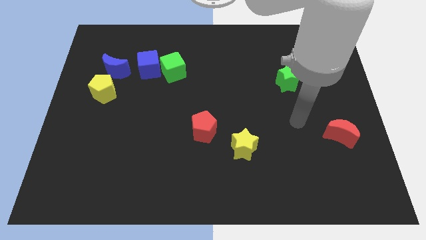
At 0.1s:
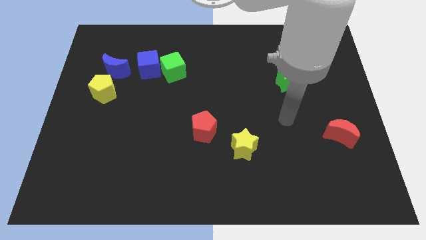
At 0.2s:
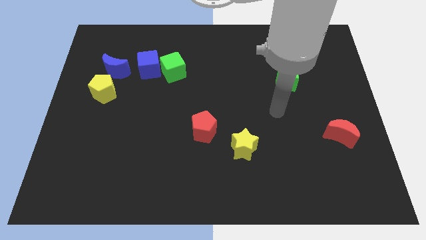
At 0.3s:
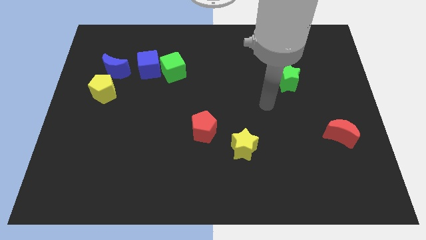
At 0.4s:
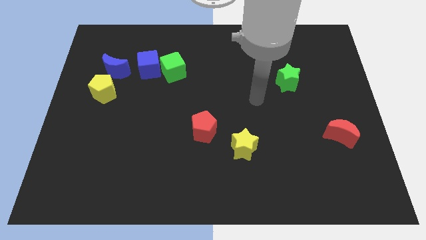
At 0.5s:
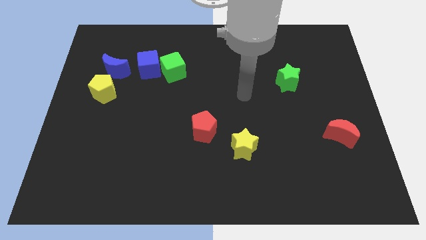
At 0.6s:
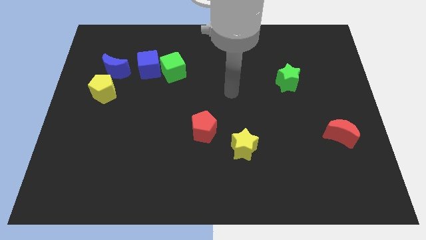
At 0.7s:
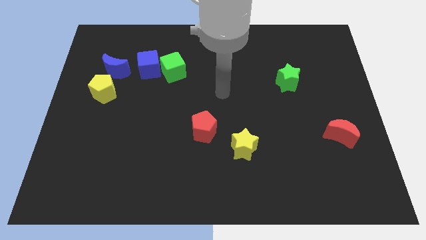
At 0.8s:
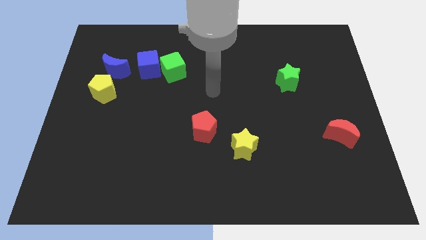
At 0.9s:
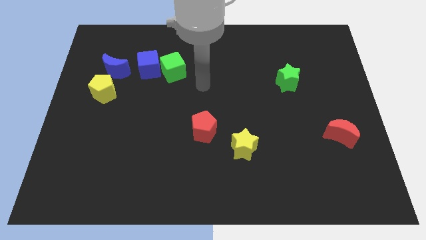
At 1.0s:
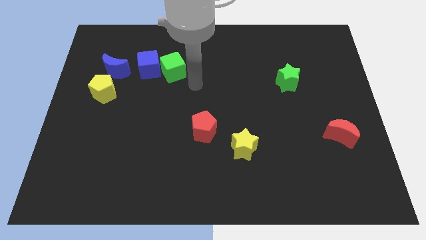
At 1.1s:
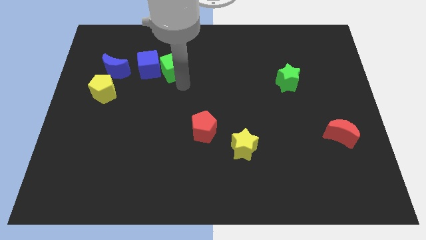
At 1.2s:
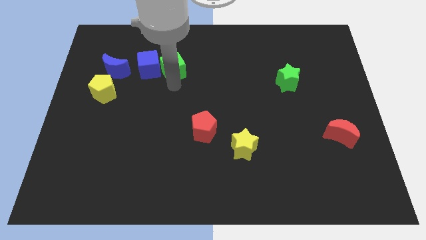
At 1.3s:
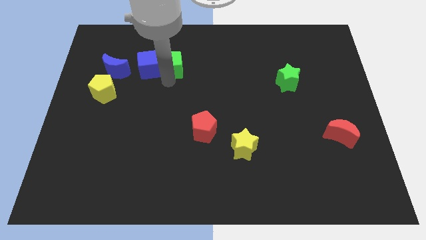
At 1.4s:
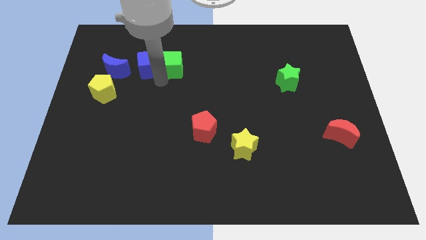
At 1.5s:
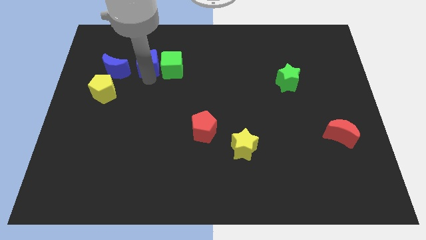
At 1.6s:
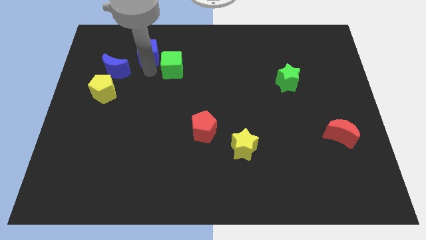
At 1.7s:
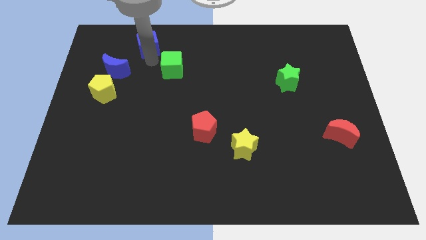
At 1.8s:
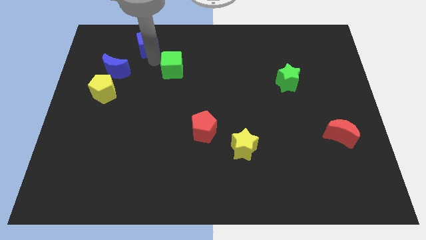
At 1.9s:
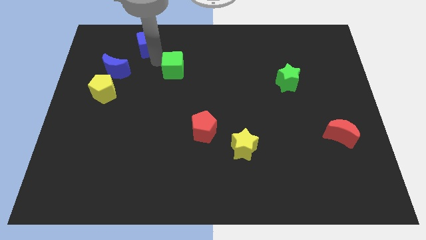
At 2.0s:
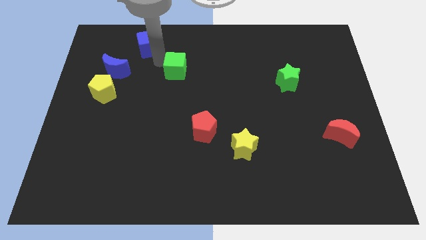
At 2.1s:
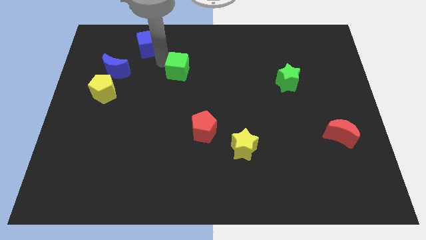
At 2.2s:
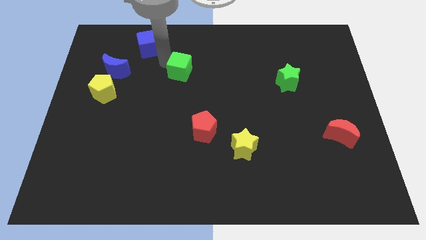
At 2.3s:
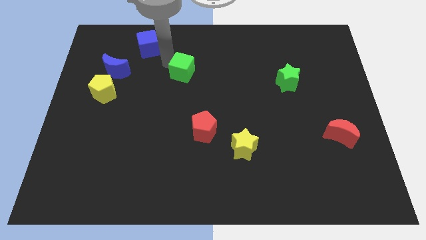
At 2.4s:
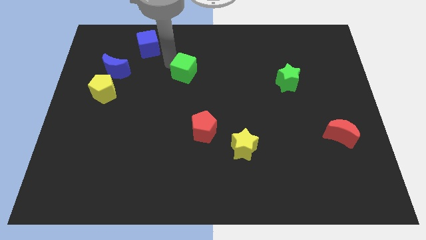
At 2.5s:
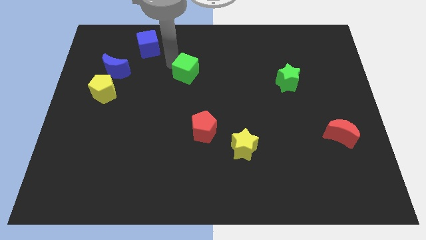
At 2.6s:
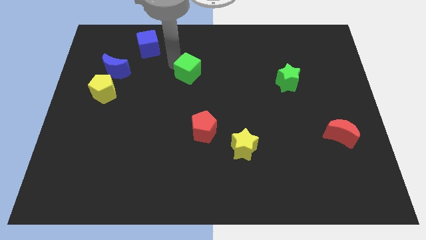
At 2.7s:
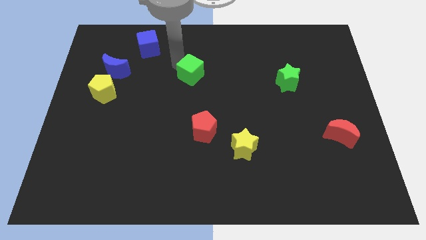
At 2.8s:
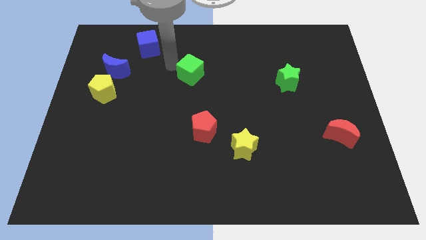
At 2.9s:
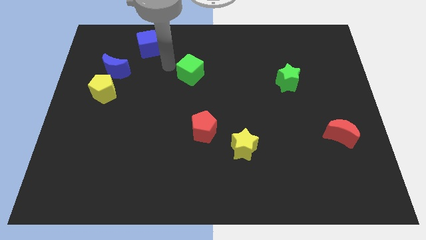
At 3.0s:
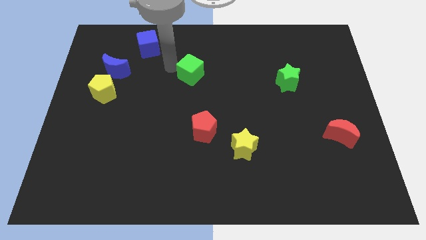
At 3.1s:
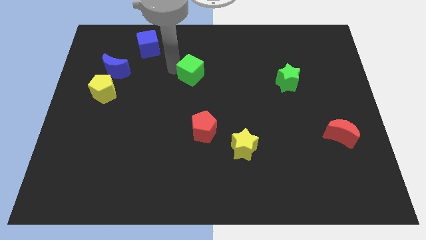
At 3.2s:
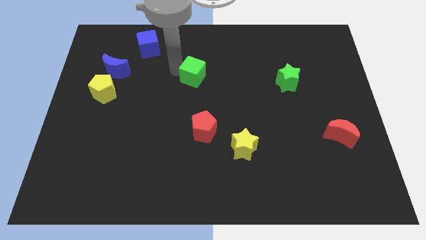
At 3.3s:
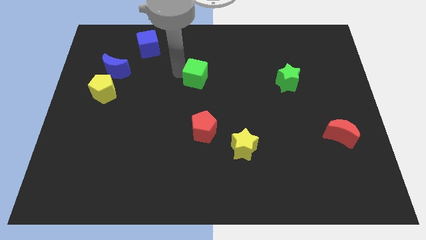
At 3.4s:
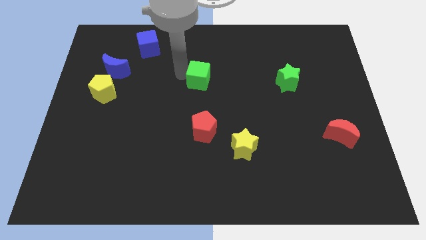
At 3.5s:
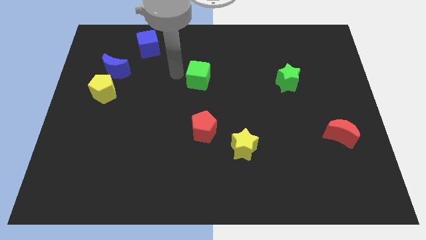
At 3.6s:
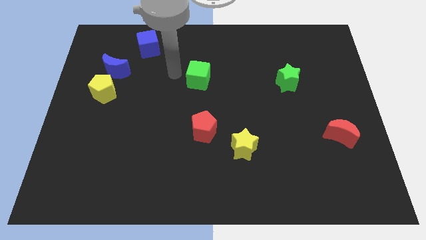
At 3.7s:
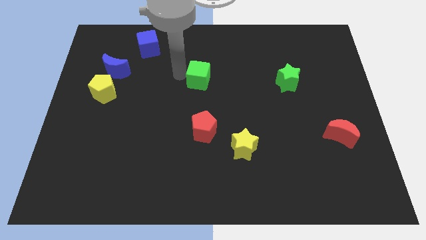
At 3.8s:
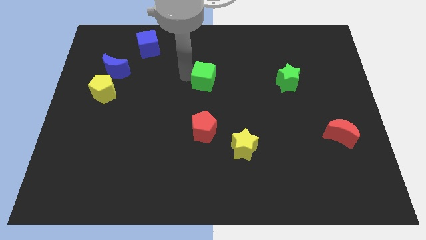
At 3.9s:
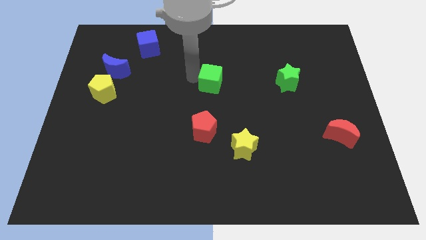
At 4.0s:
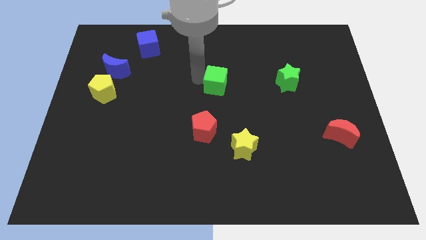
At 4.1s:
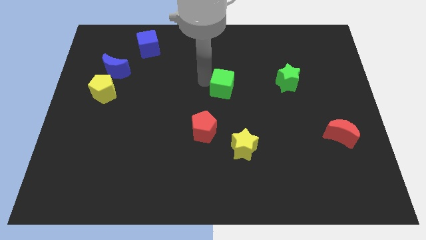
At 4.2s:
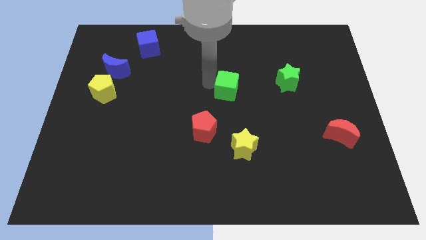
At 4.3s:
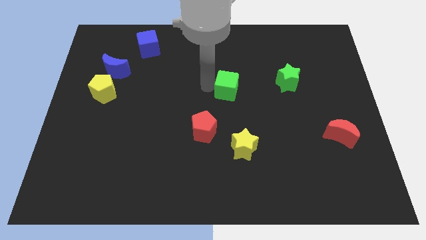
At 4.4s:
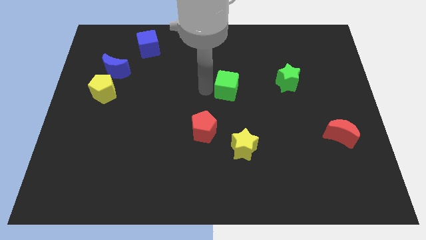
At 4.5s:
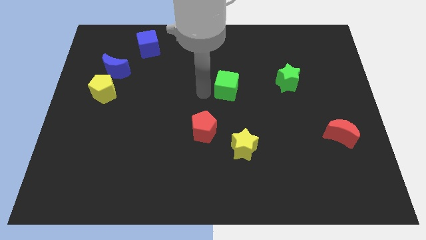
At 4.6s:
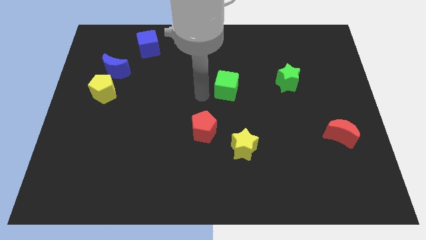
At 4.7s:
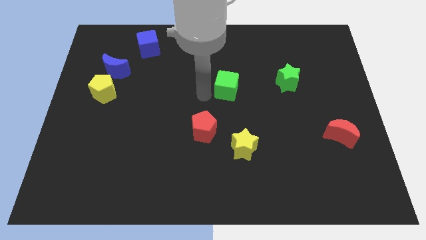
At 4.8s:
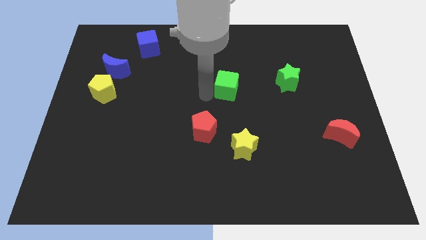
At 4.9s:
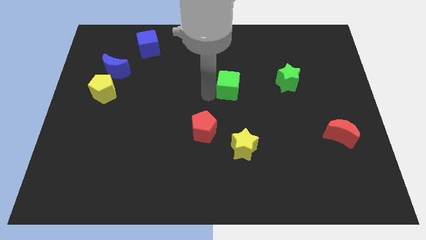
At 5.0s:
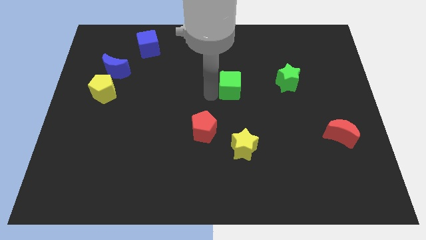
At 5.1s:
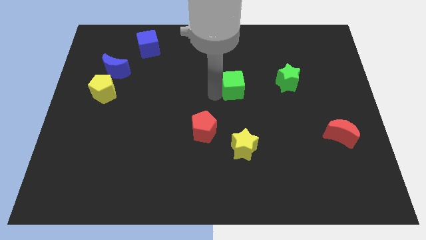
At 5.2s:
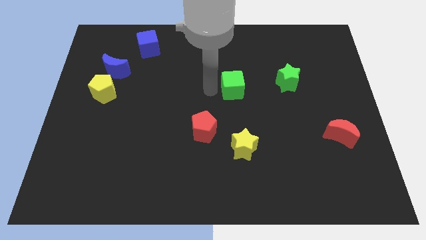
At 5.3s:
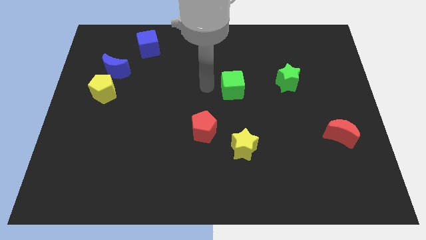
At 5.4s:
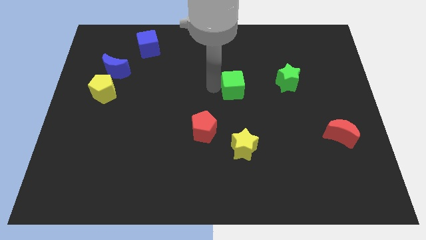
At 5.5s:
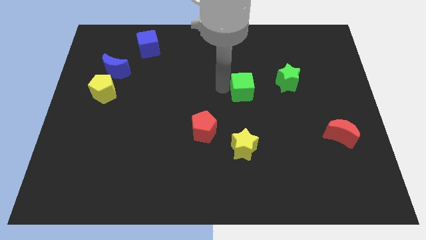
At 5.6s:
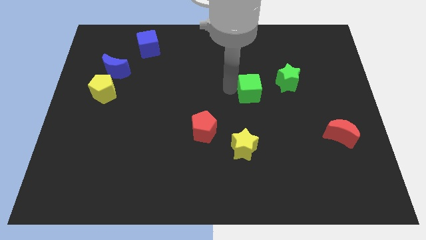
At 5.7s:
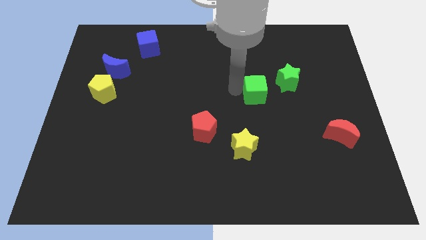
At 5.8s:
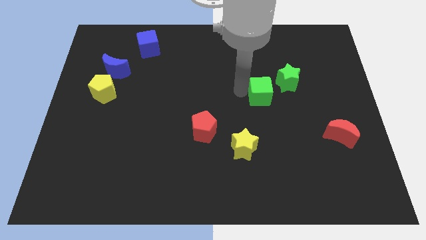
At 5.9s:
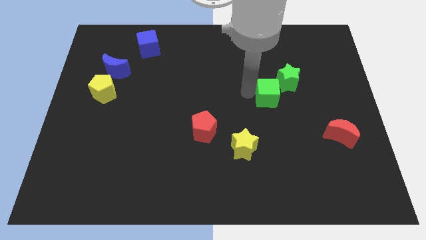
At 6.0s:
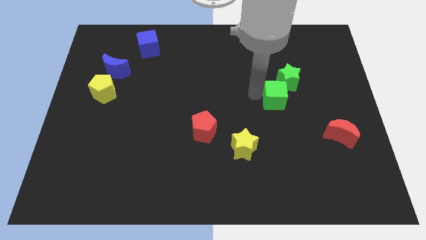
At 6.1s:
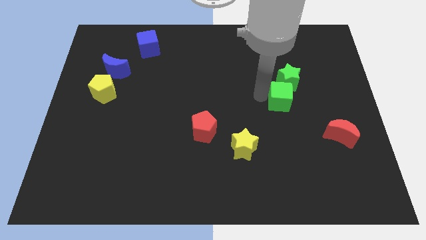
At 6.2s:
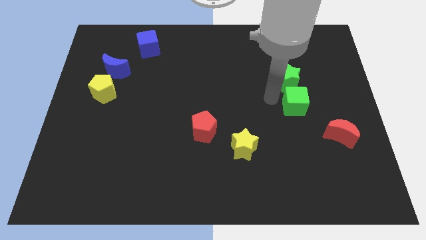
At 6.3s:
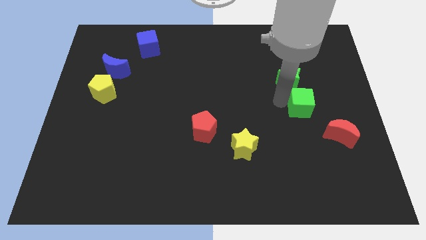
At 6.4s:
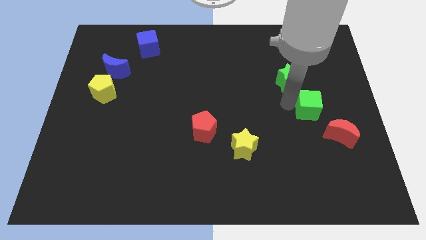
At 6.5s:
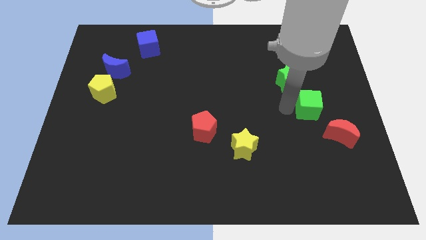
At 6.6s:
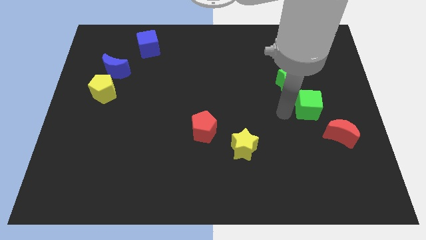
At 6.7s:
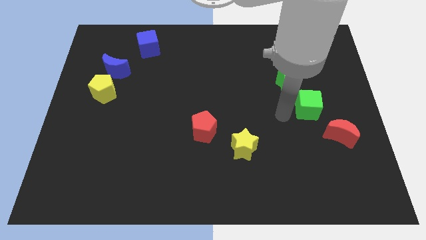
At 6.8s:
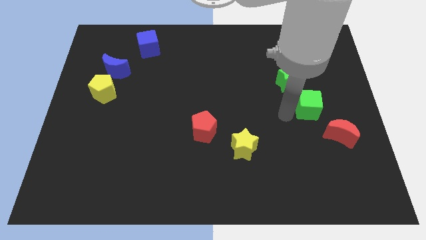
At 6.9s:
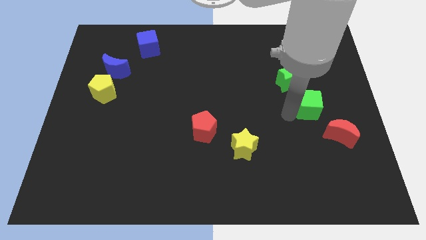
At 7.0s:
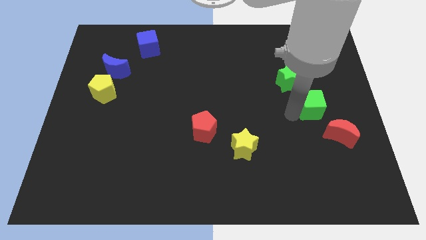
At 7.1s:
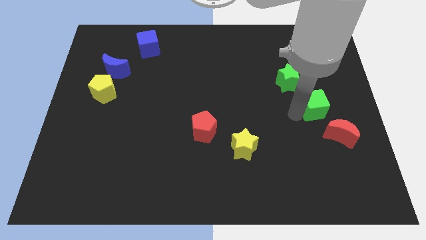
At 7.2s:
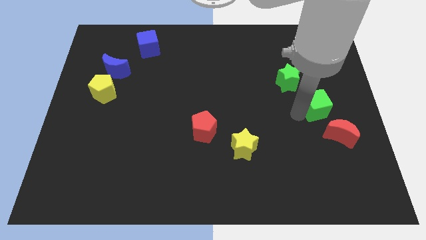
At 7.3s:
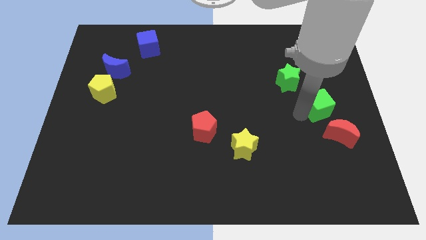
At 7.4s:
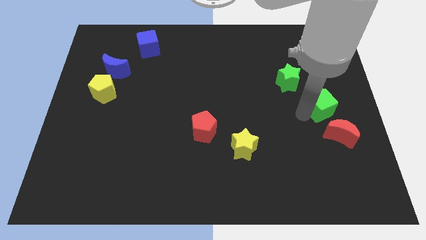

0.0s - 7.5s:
move the green cube to the right side
